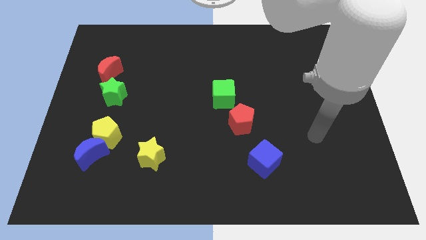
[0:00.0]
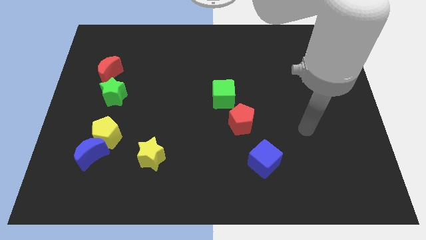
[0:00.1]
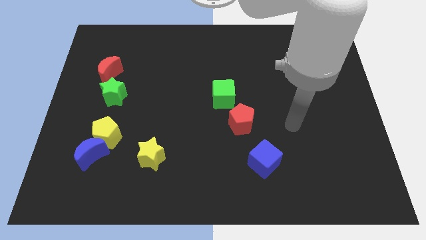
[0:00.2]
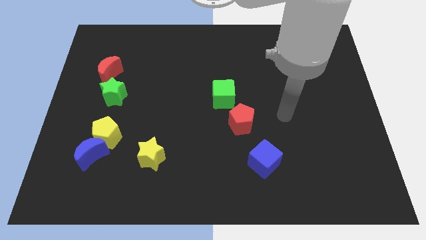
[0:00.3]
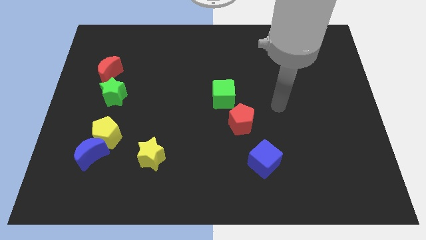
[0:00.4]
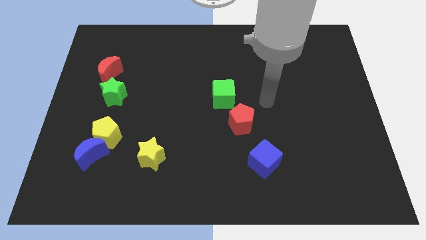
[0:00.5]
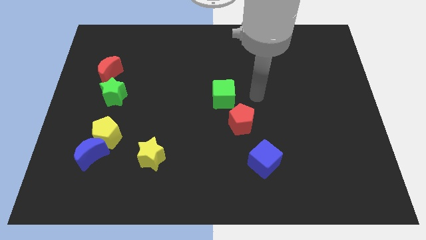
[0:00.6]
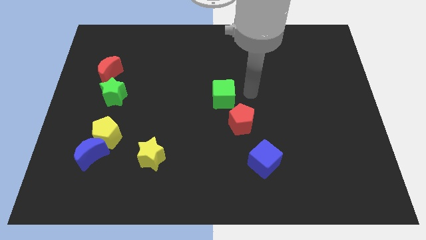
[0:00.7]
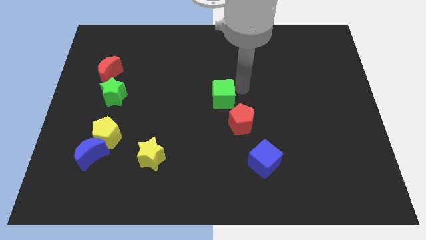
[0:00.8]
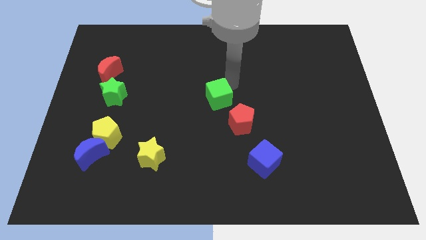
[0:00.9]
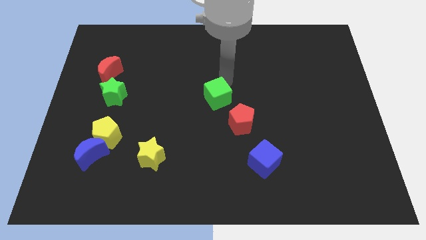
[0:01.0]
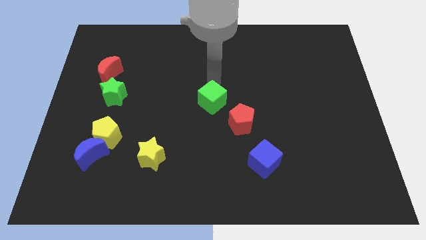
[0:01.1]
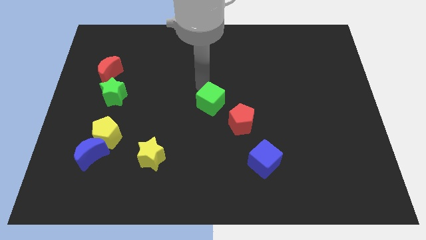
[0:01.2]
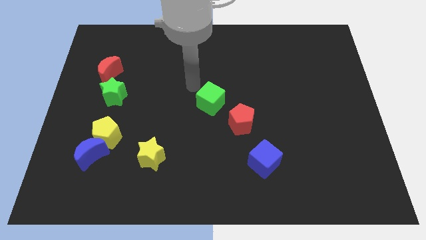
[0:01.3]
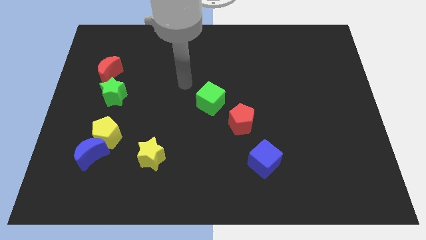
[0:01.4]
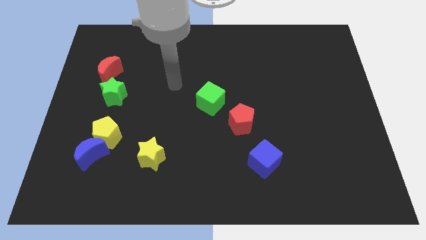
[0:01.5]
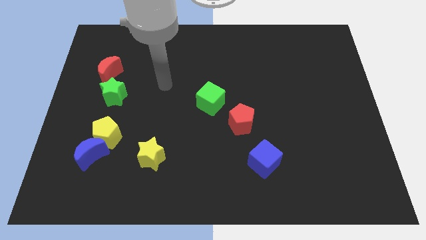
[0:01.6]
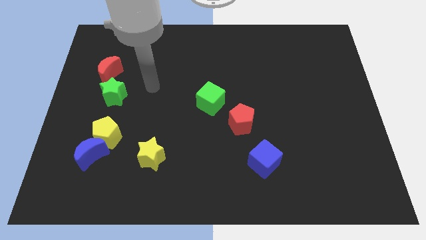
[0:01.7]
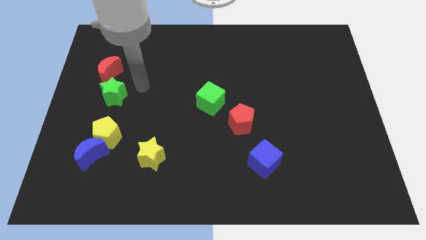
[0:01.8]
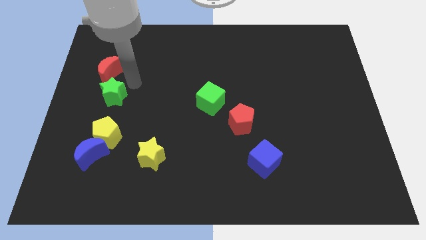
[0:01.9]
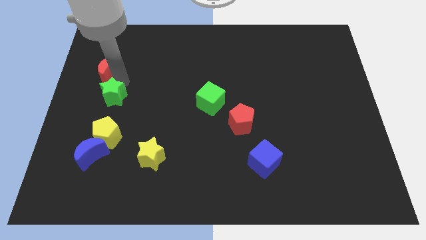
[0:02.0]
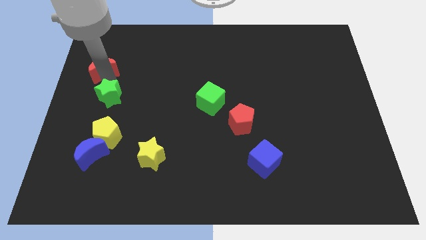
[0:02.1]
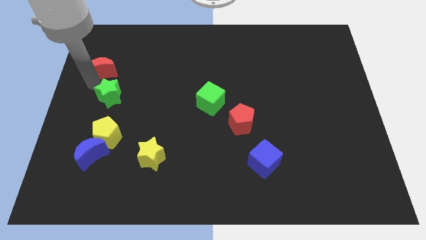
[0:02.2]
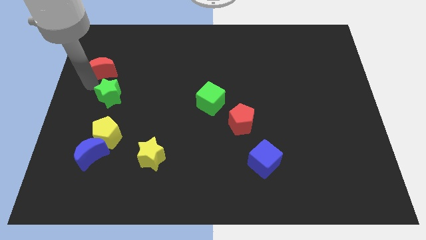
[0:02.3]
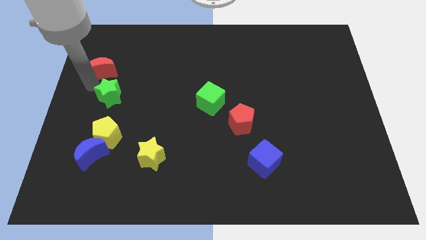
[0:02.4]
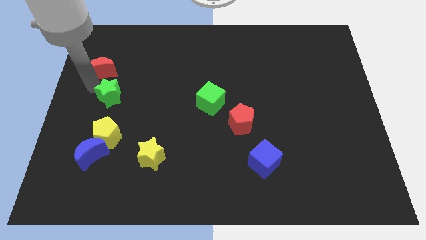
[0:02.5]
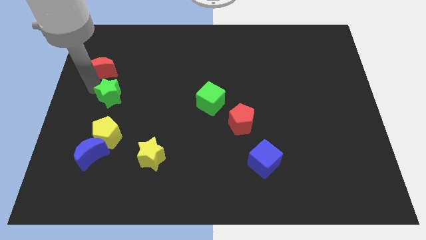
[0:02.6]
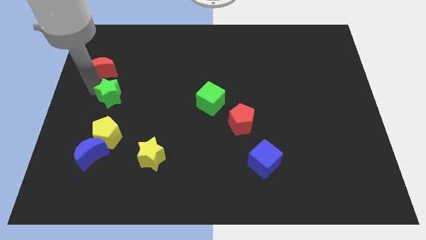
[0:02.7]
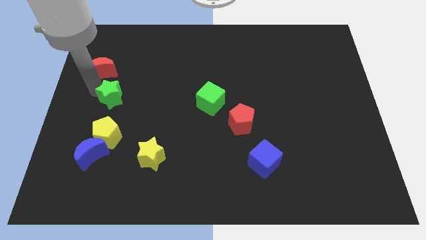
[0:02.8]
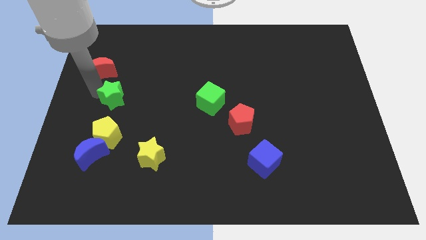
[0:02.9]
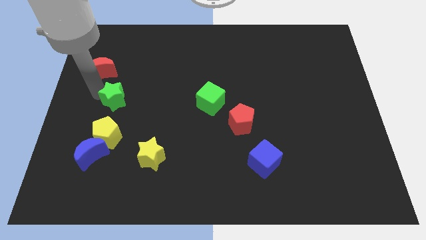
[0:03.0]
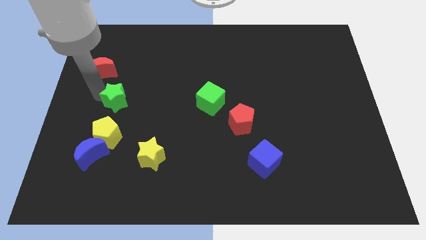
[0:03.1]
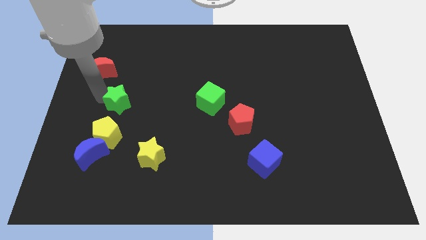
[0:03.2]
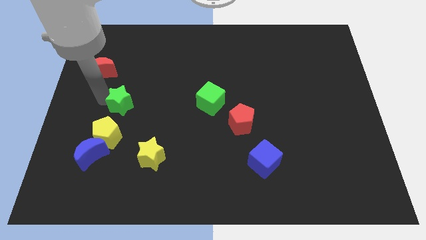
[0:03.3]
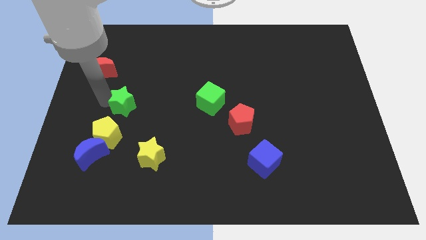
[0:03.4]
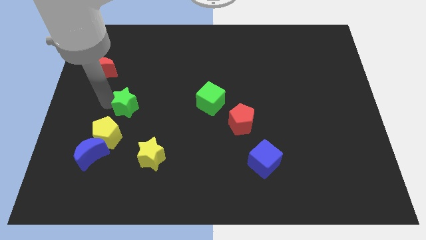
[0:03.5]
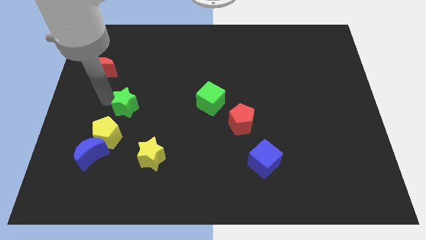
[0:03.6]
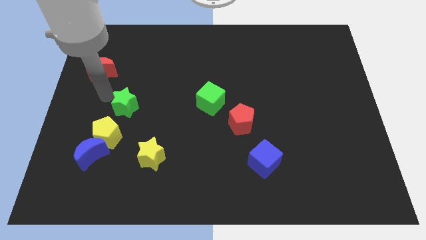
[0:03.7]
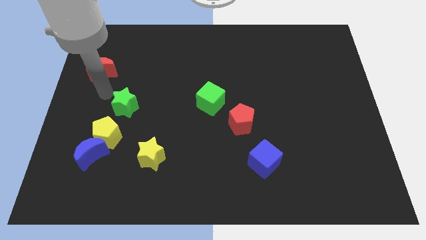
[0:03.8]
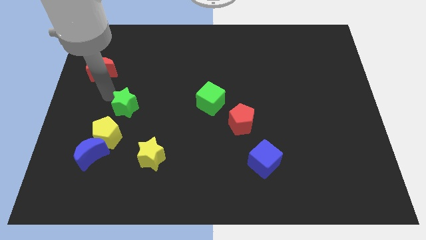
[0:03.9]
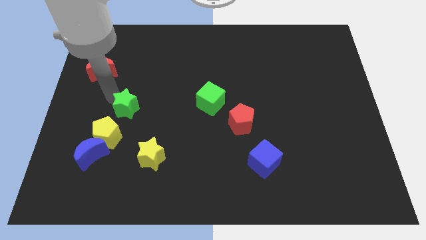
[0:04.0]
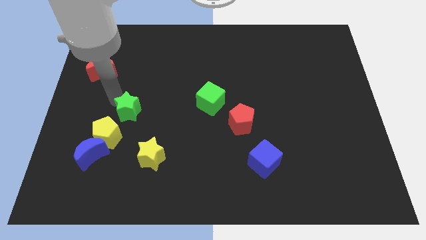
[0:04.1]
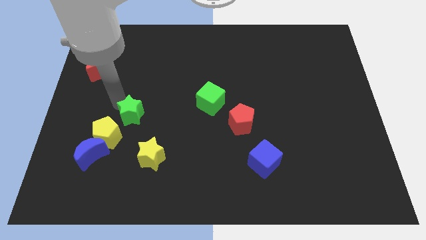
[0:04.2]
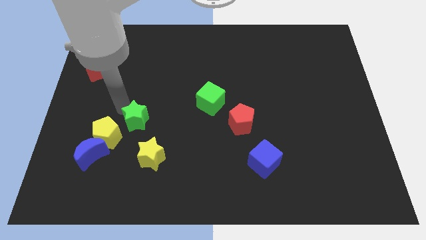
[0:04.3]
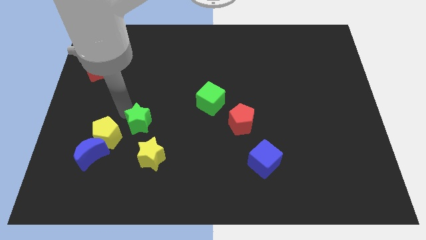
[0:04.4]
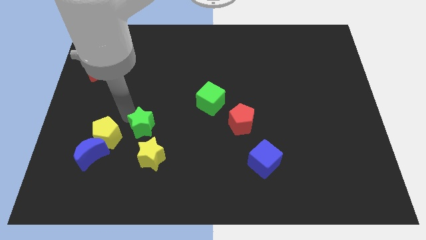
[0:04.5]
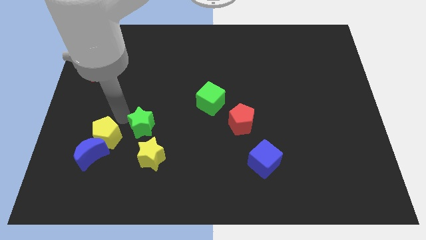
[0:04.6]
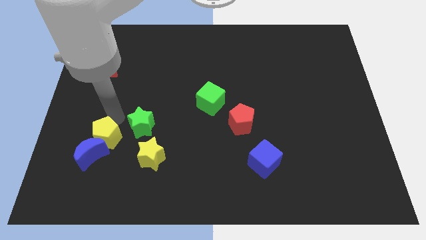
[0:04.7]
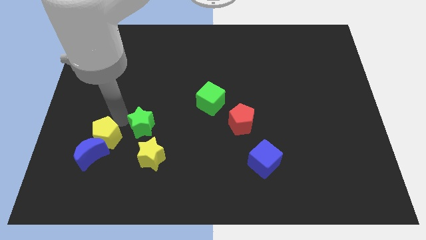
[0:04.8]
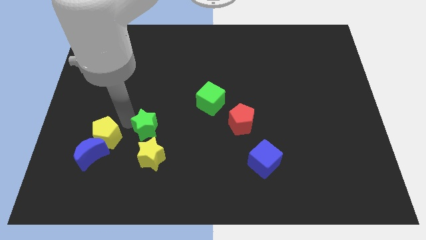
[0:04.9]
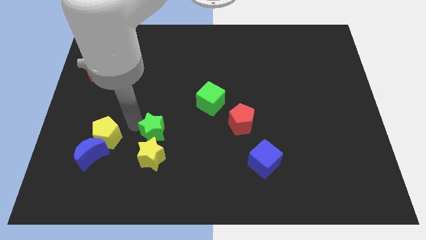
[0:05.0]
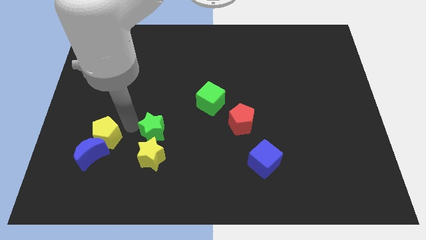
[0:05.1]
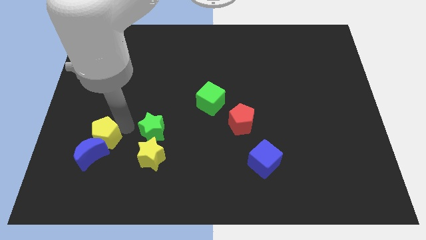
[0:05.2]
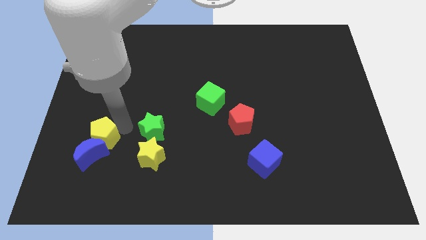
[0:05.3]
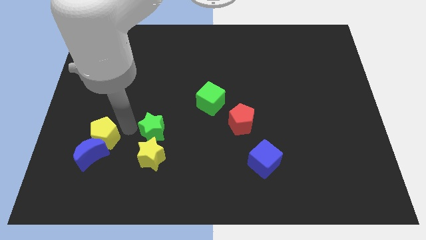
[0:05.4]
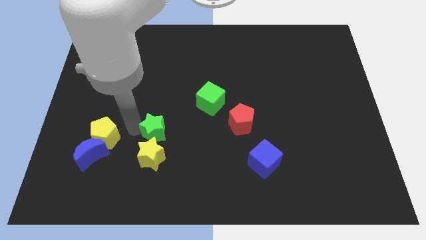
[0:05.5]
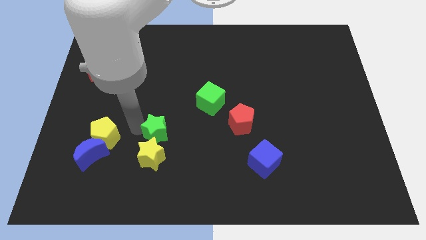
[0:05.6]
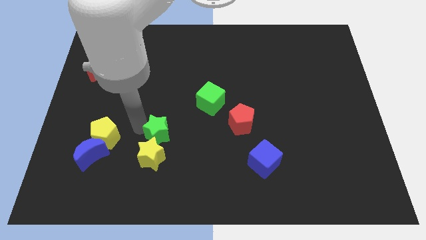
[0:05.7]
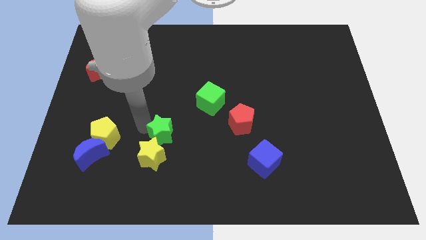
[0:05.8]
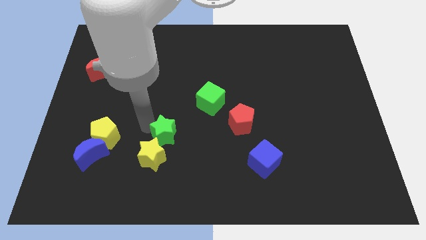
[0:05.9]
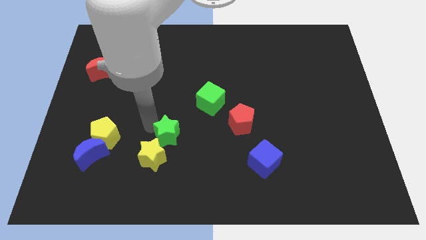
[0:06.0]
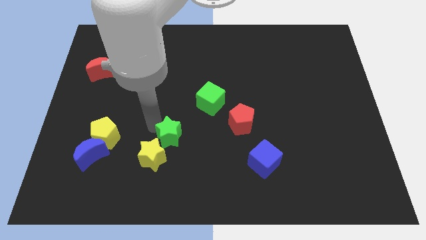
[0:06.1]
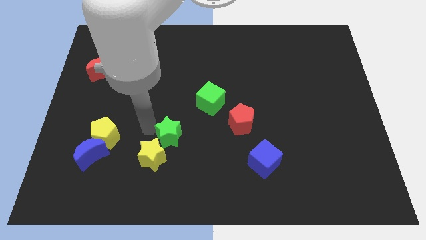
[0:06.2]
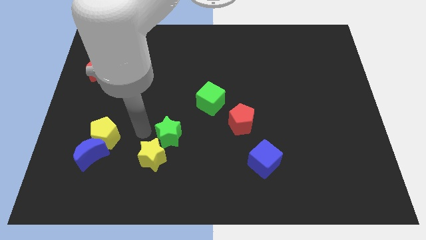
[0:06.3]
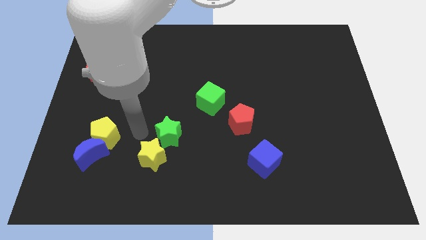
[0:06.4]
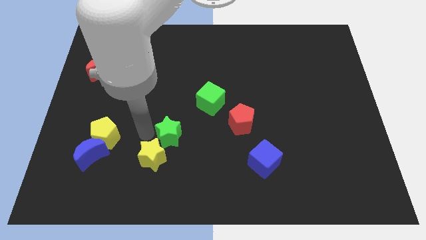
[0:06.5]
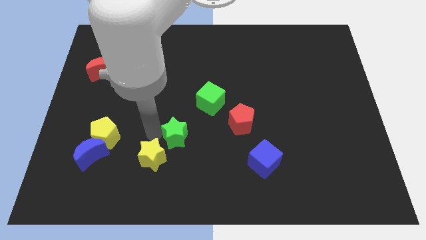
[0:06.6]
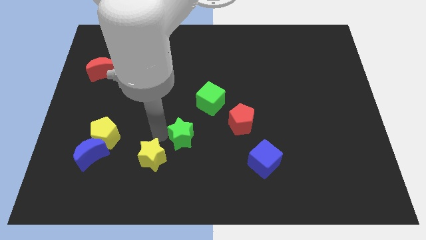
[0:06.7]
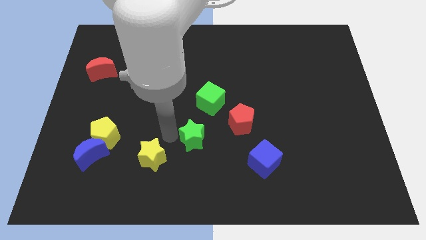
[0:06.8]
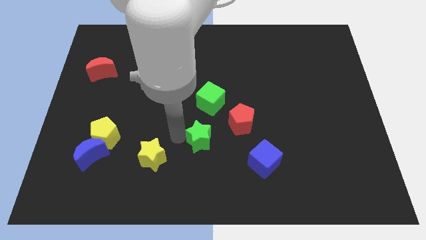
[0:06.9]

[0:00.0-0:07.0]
move the green star to the bottom left side of the red pentagon
